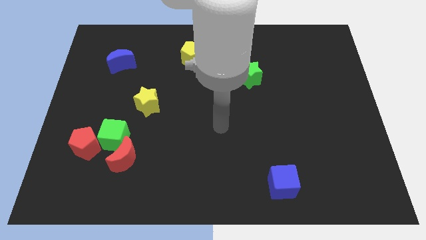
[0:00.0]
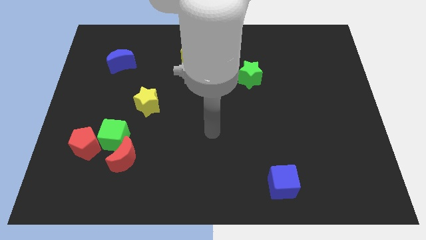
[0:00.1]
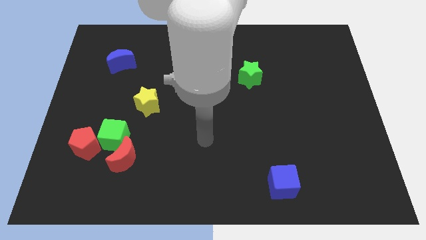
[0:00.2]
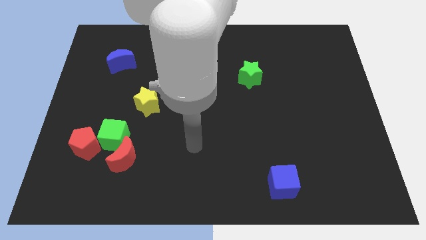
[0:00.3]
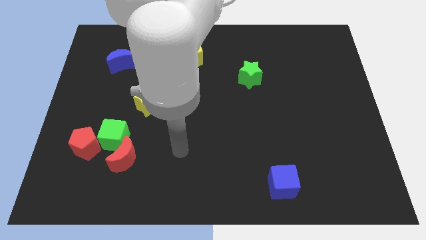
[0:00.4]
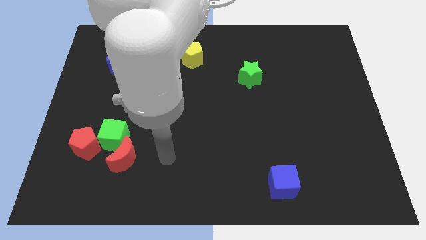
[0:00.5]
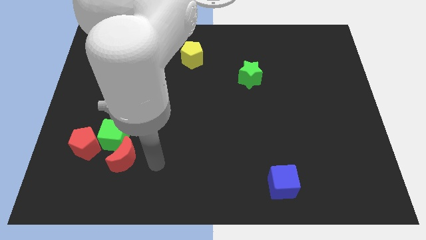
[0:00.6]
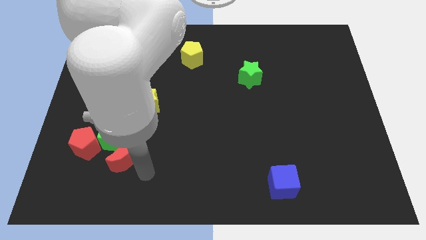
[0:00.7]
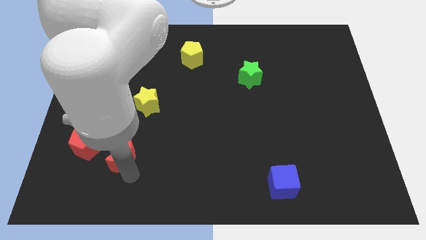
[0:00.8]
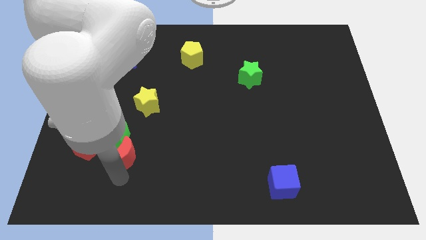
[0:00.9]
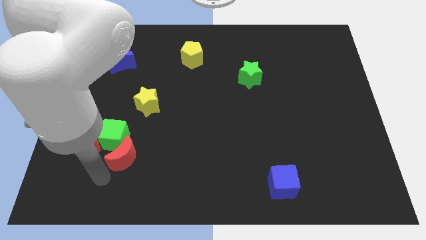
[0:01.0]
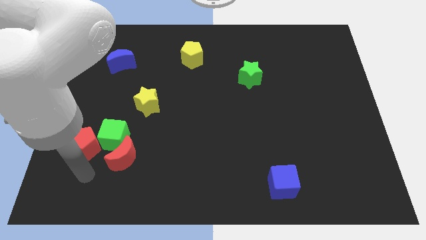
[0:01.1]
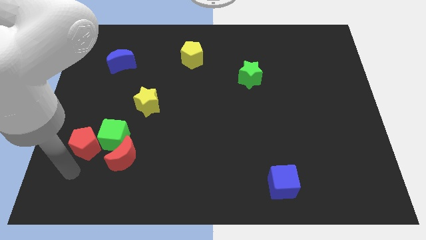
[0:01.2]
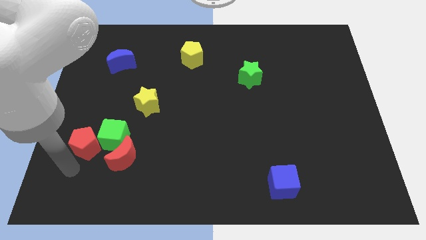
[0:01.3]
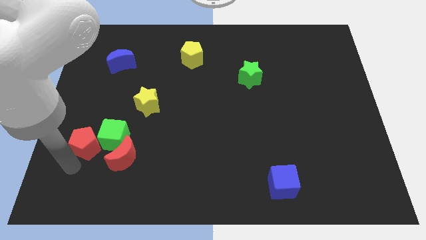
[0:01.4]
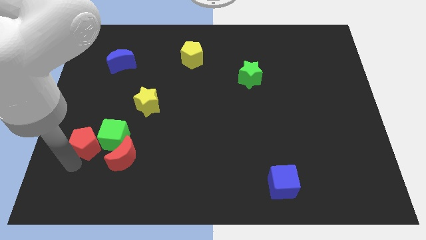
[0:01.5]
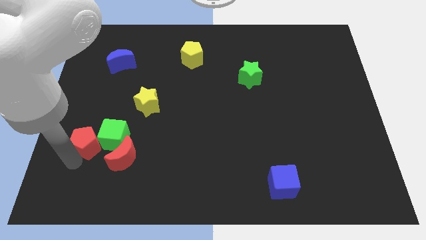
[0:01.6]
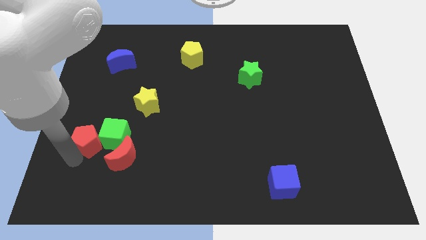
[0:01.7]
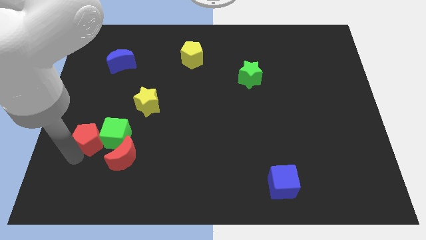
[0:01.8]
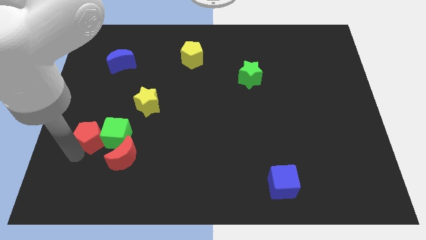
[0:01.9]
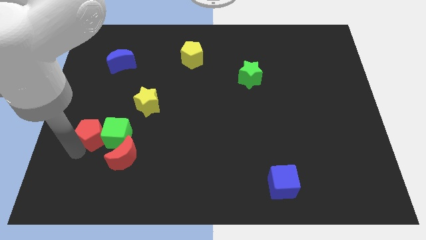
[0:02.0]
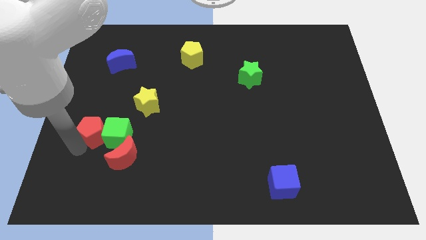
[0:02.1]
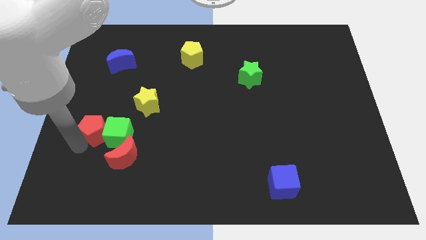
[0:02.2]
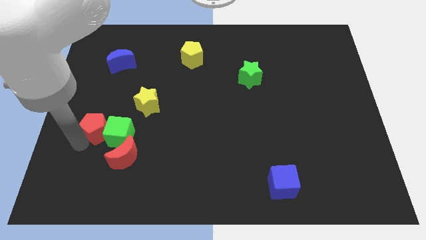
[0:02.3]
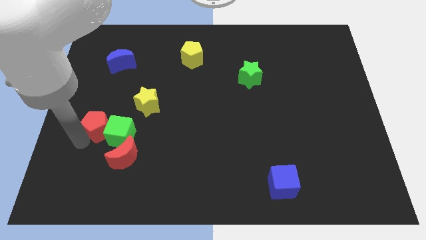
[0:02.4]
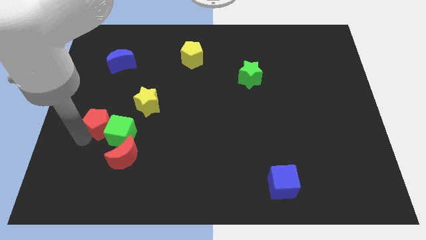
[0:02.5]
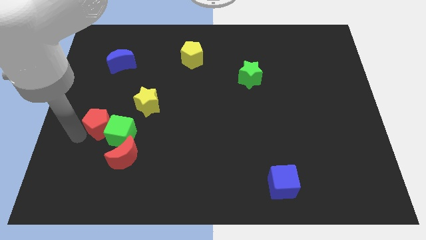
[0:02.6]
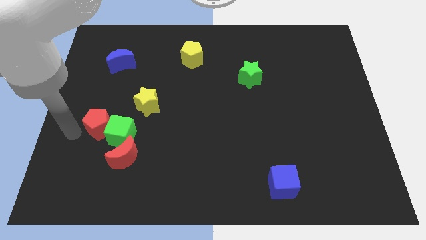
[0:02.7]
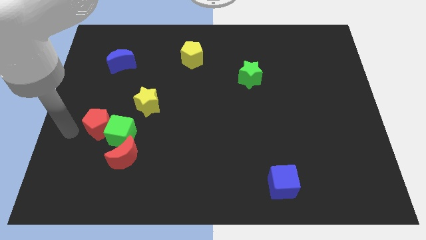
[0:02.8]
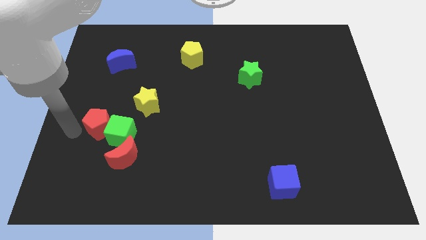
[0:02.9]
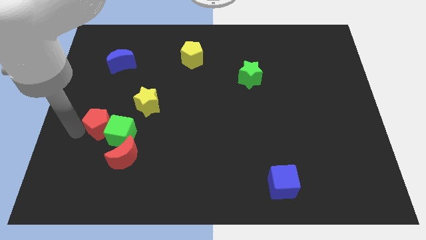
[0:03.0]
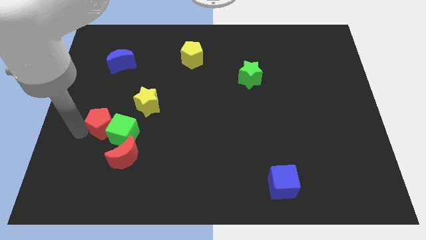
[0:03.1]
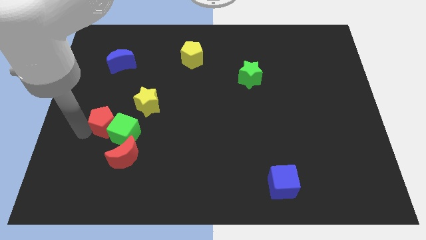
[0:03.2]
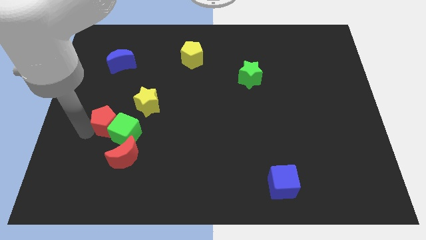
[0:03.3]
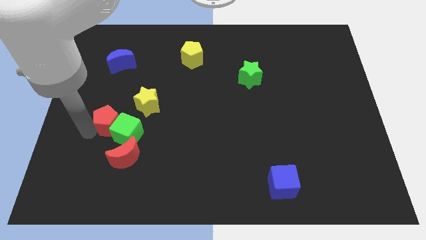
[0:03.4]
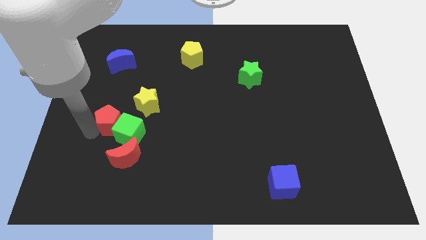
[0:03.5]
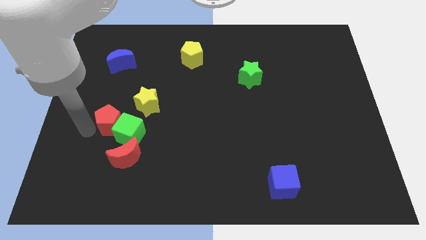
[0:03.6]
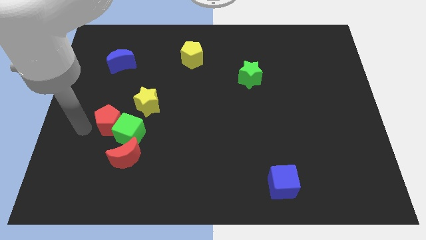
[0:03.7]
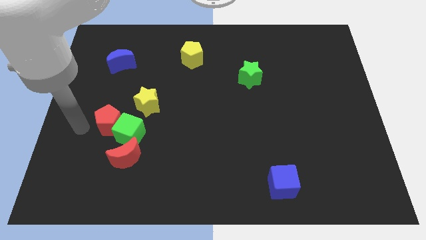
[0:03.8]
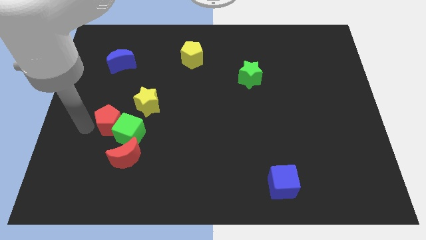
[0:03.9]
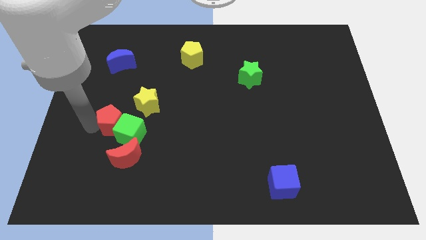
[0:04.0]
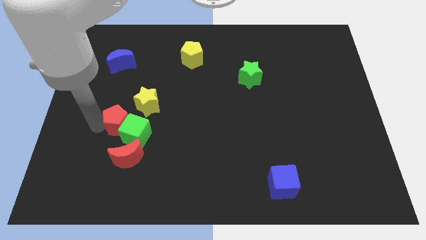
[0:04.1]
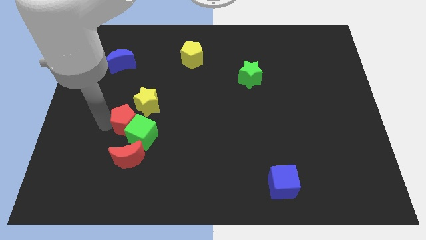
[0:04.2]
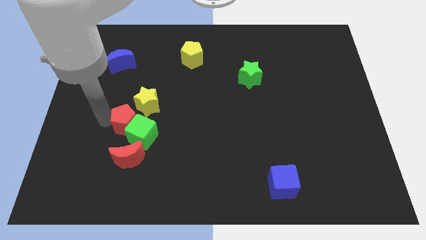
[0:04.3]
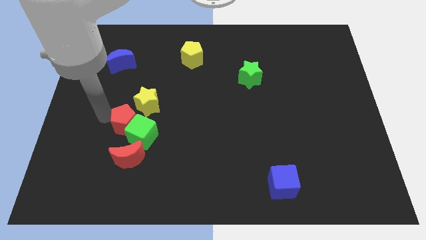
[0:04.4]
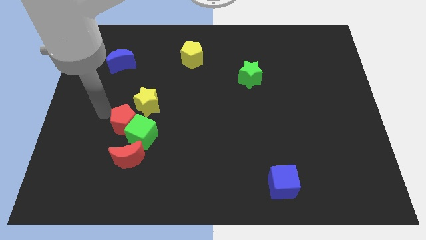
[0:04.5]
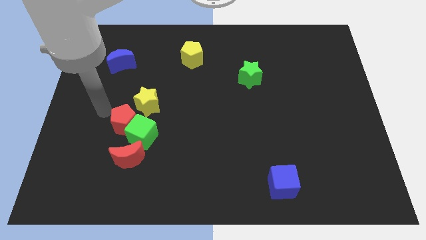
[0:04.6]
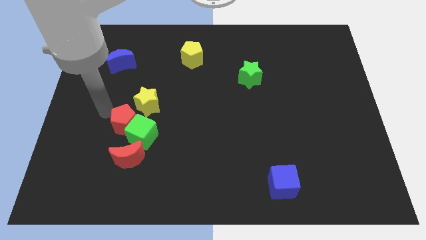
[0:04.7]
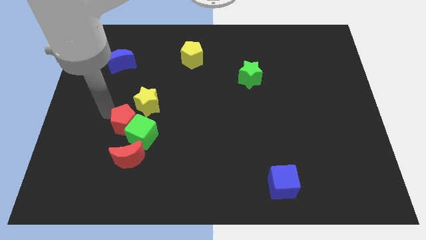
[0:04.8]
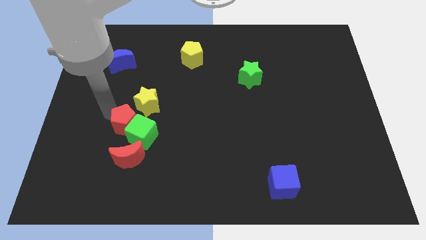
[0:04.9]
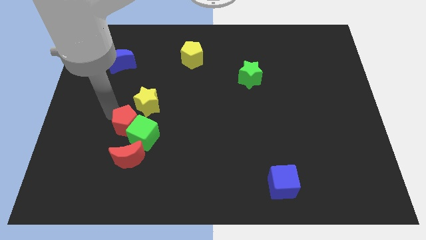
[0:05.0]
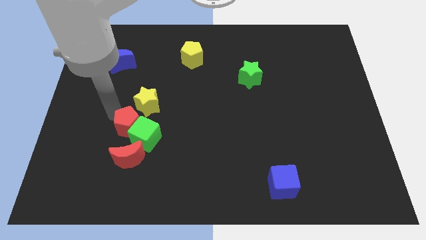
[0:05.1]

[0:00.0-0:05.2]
push the red pentagon to the right a little

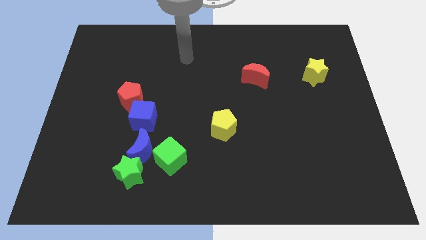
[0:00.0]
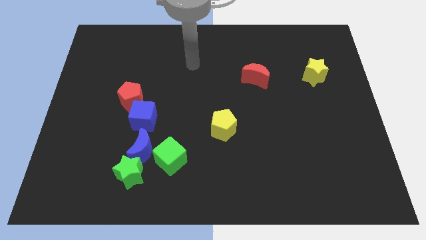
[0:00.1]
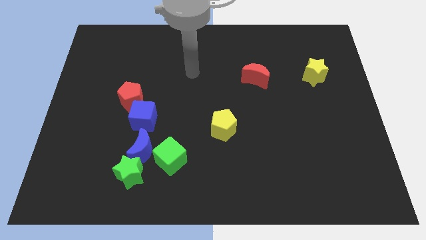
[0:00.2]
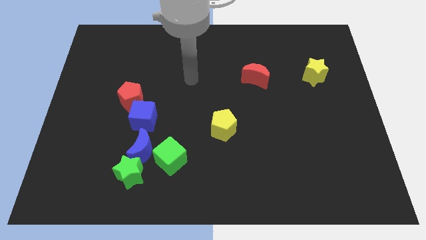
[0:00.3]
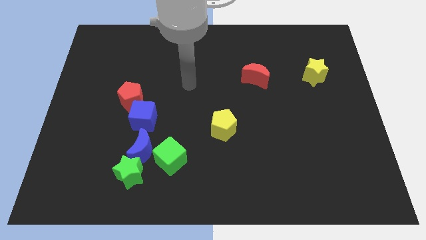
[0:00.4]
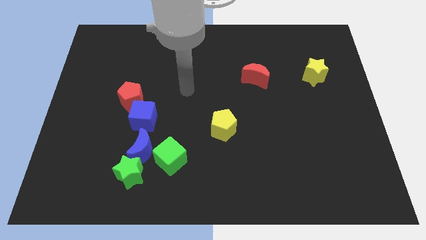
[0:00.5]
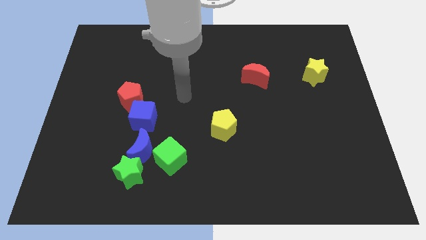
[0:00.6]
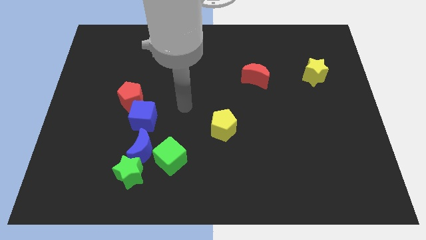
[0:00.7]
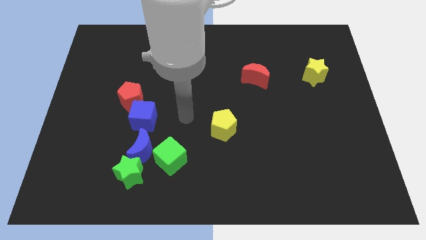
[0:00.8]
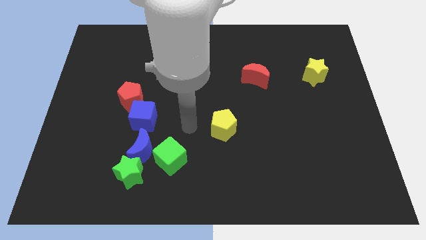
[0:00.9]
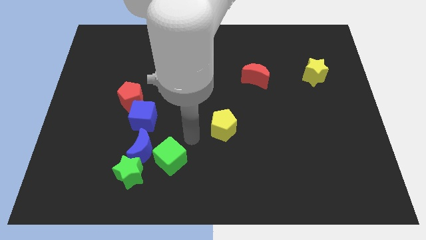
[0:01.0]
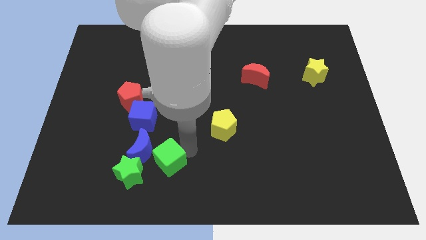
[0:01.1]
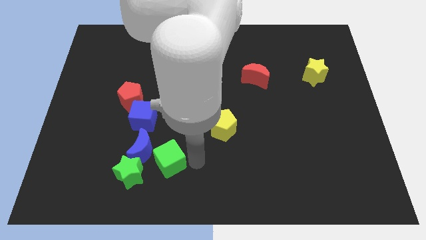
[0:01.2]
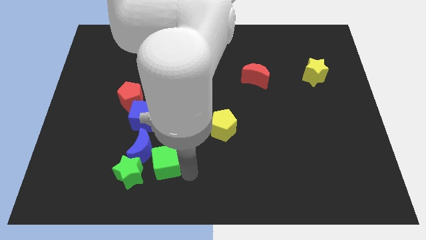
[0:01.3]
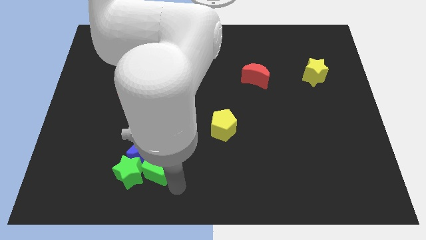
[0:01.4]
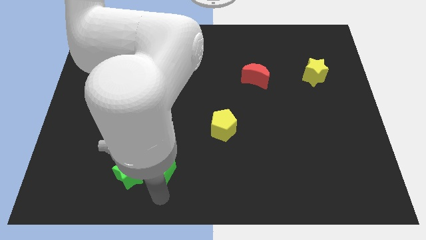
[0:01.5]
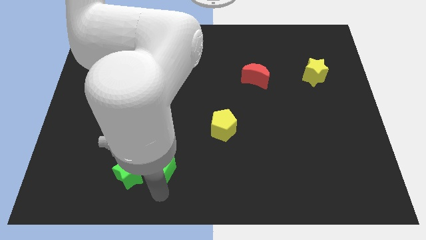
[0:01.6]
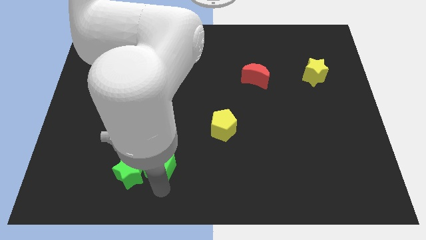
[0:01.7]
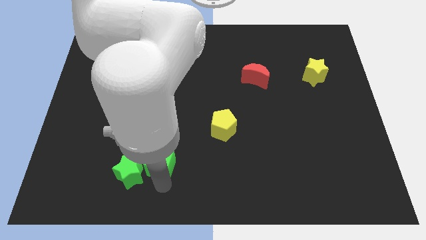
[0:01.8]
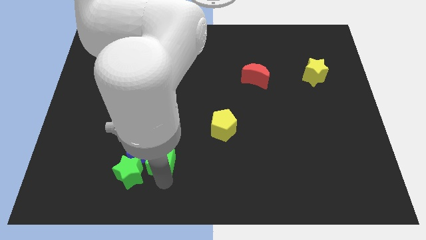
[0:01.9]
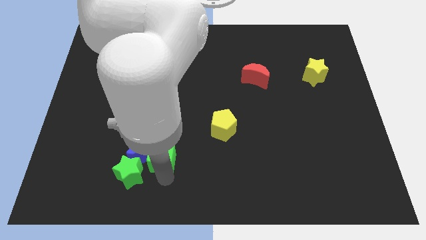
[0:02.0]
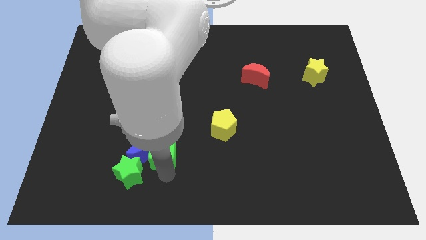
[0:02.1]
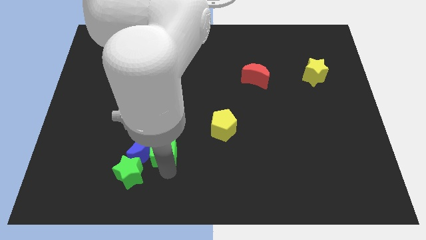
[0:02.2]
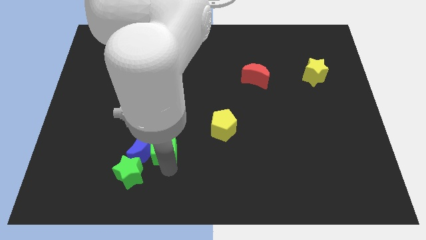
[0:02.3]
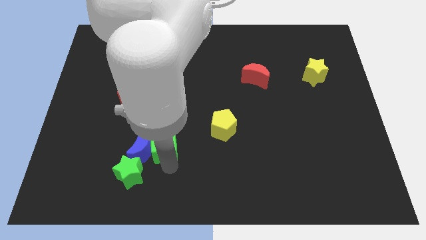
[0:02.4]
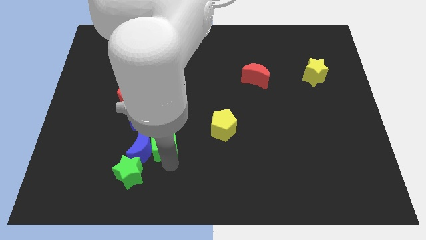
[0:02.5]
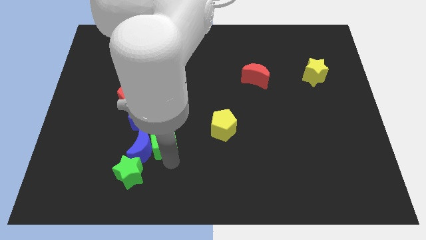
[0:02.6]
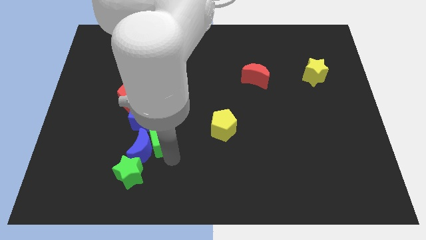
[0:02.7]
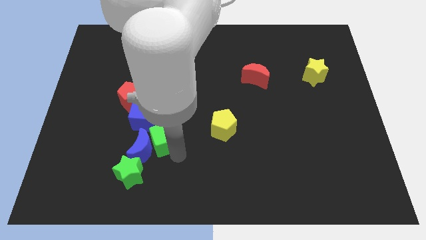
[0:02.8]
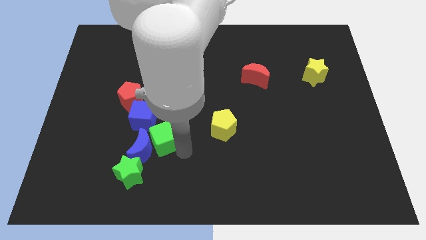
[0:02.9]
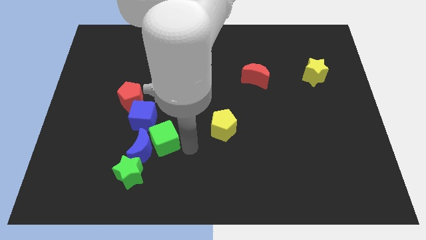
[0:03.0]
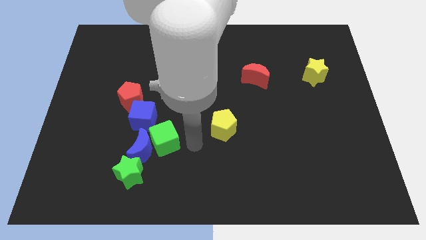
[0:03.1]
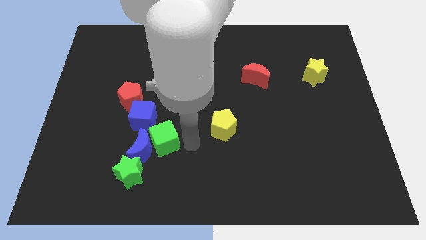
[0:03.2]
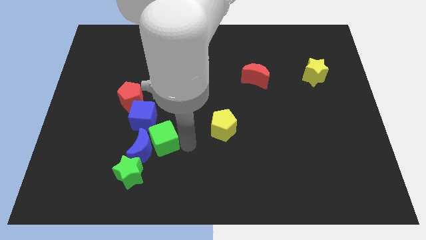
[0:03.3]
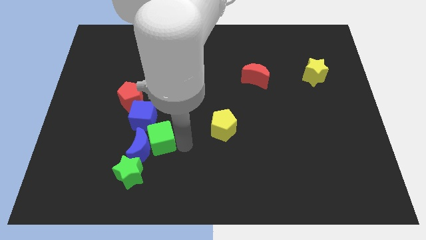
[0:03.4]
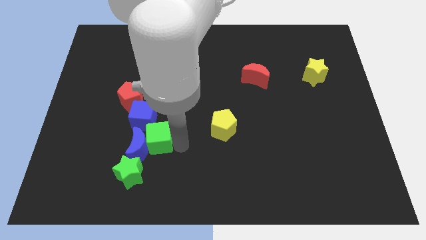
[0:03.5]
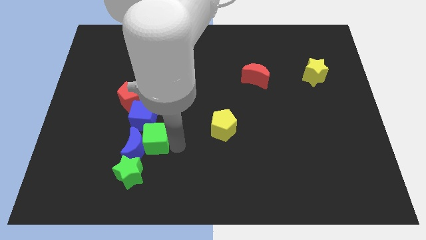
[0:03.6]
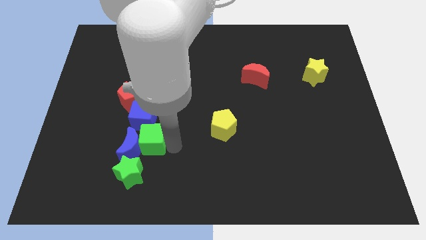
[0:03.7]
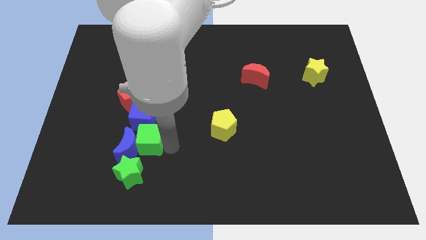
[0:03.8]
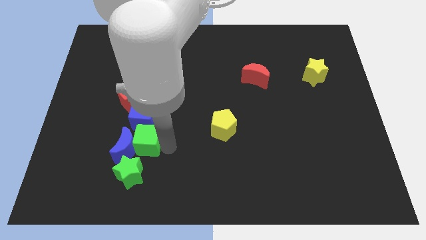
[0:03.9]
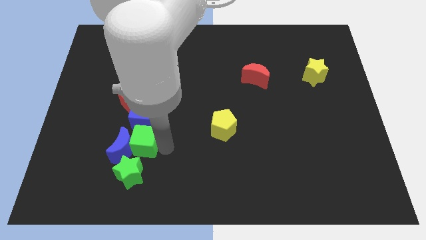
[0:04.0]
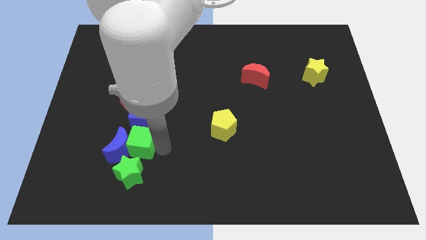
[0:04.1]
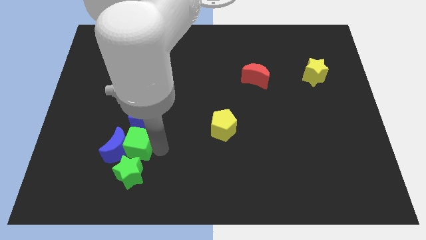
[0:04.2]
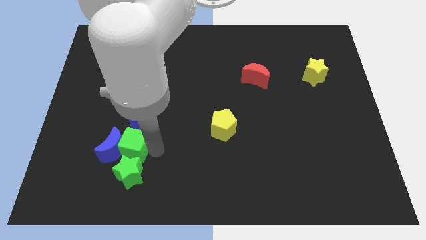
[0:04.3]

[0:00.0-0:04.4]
push the green cube left a little bit
